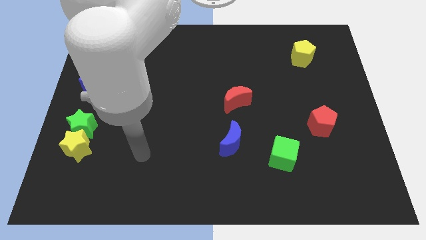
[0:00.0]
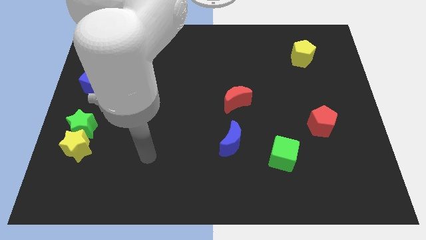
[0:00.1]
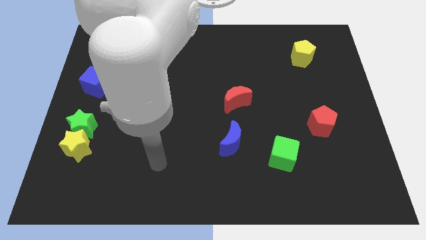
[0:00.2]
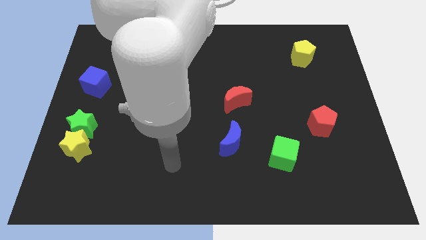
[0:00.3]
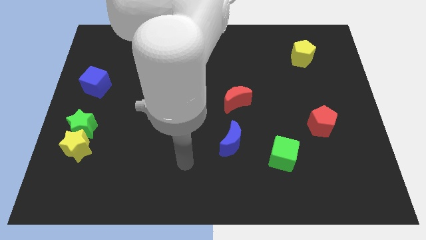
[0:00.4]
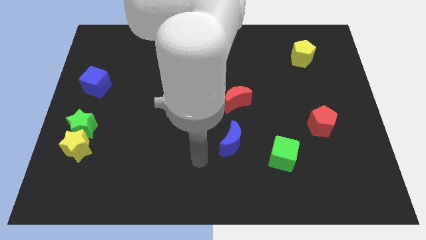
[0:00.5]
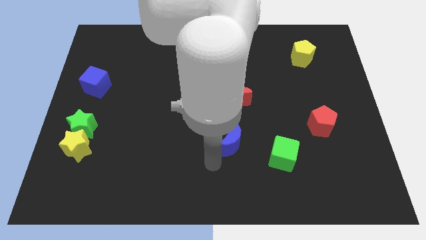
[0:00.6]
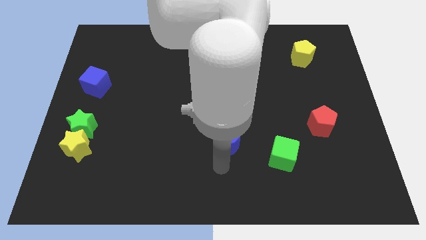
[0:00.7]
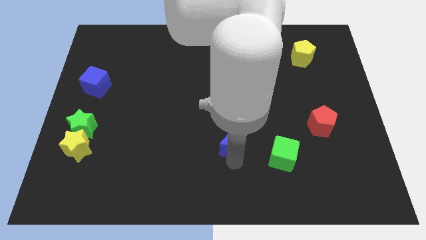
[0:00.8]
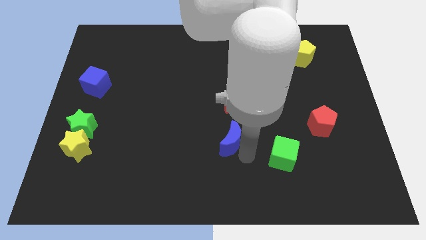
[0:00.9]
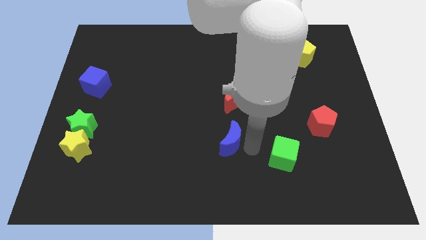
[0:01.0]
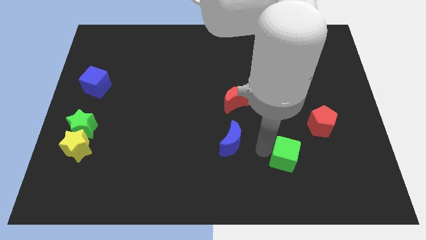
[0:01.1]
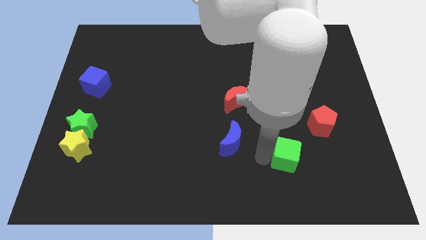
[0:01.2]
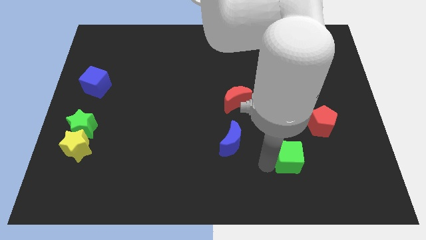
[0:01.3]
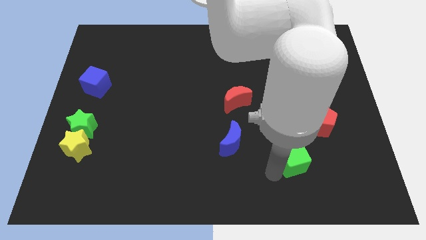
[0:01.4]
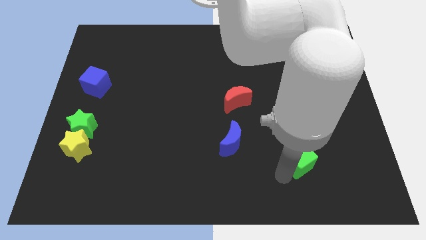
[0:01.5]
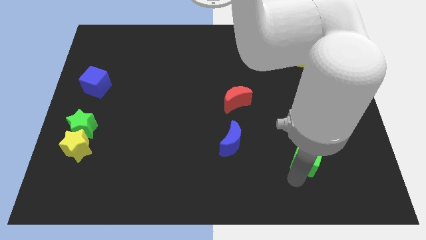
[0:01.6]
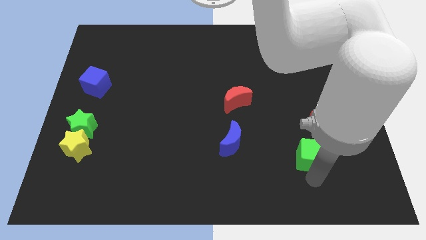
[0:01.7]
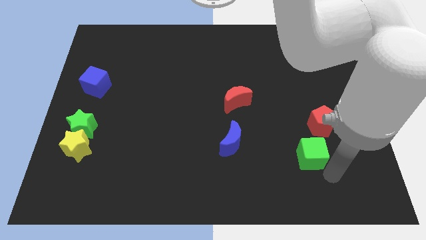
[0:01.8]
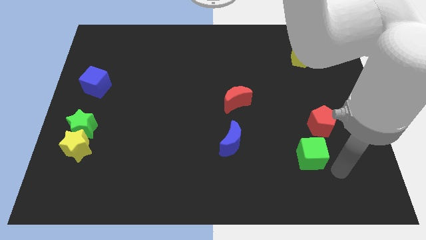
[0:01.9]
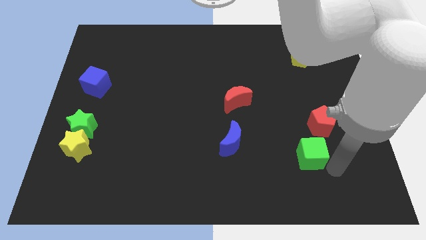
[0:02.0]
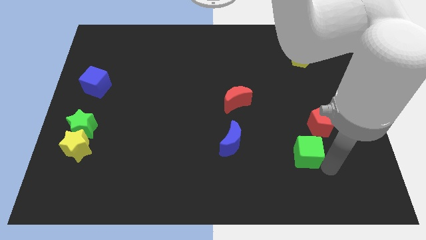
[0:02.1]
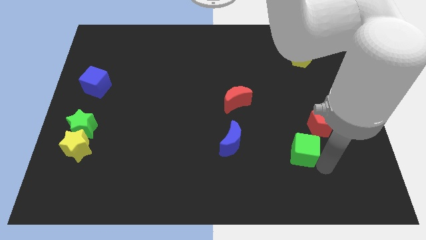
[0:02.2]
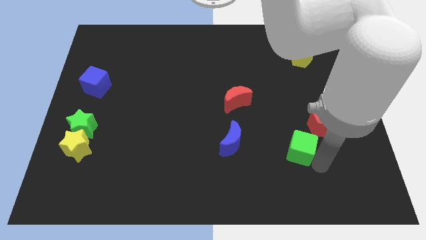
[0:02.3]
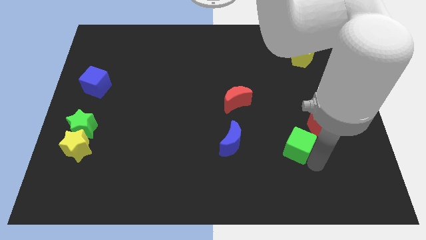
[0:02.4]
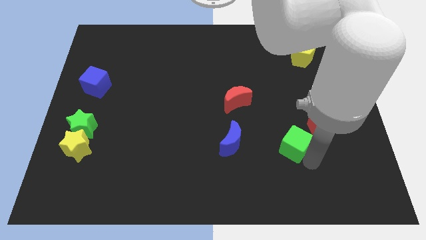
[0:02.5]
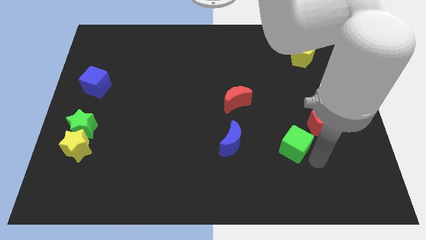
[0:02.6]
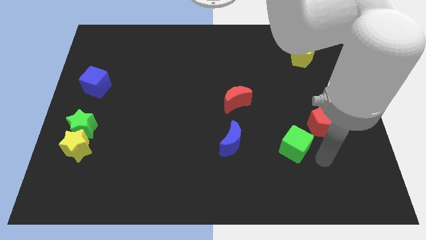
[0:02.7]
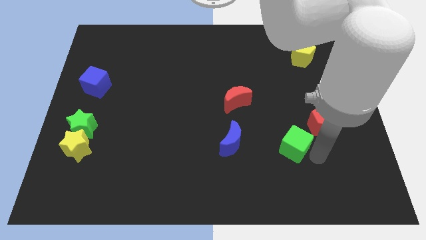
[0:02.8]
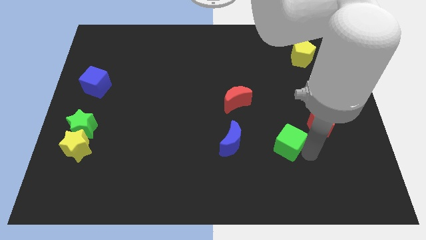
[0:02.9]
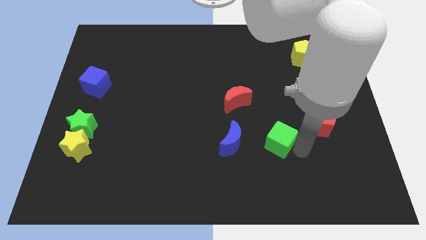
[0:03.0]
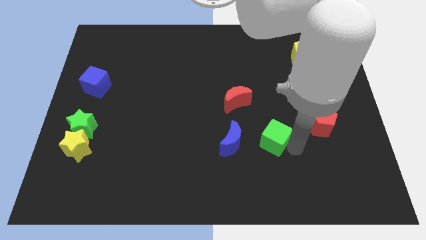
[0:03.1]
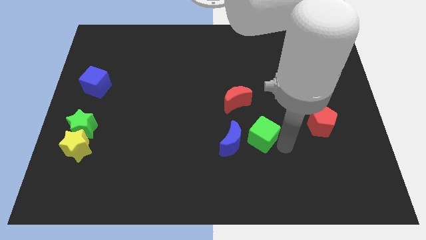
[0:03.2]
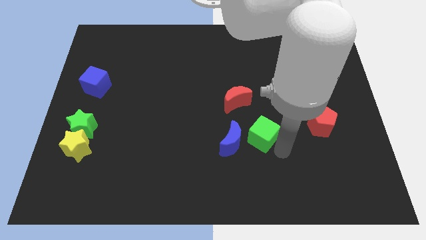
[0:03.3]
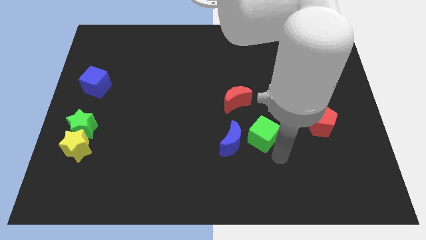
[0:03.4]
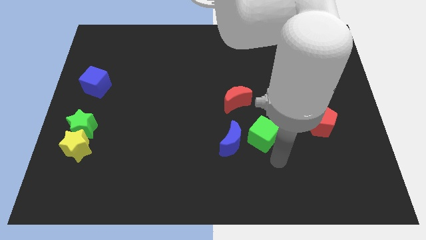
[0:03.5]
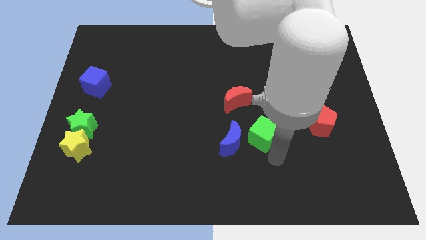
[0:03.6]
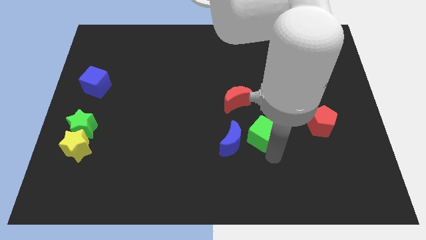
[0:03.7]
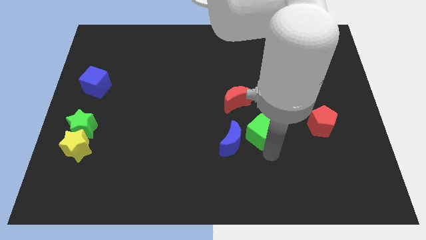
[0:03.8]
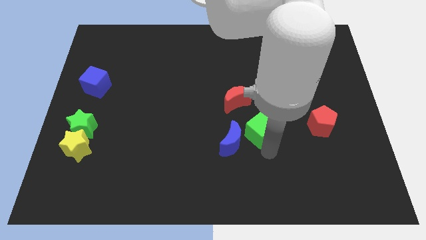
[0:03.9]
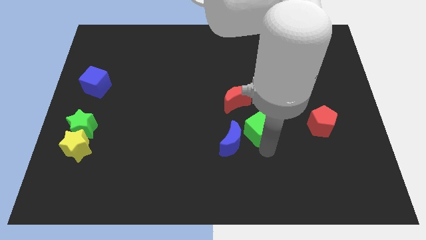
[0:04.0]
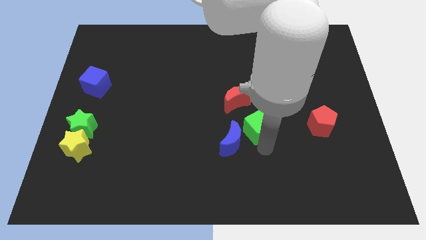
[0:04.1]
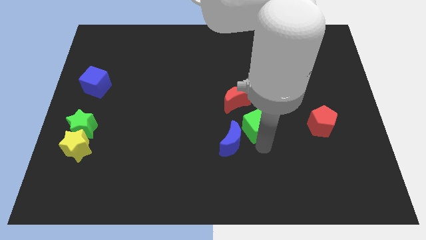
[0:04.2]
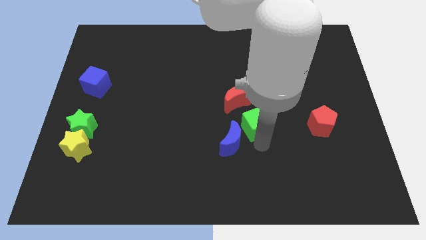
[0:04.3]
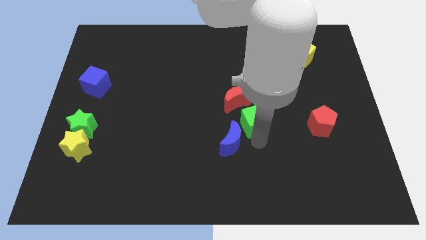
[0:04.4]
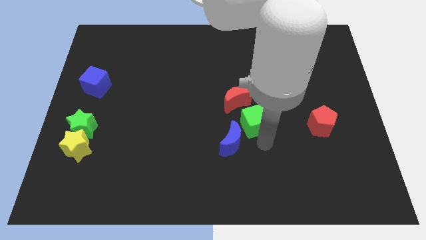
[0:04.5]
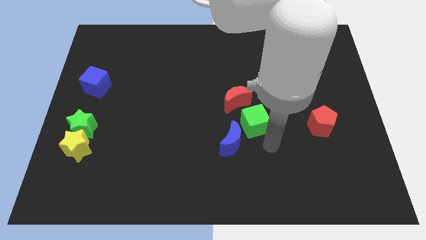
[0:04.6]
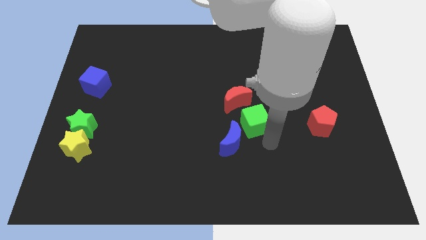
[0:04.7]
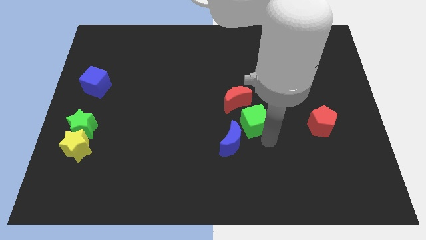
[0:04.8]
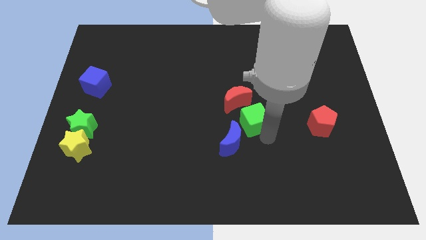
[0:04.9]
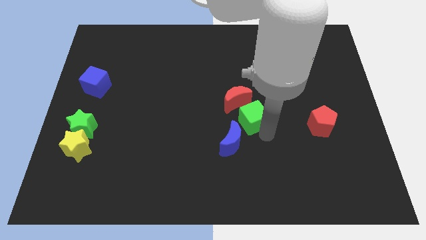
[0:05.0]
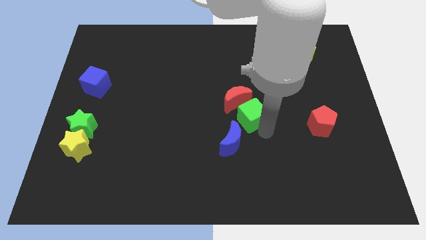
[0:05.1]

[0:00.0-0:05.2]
slide the green cube towards the red moon

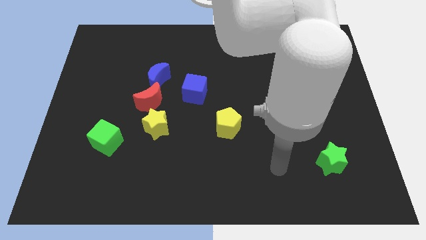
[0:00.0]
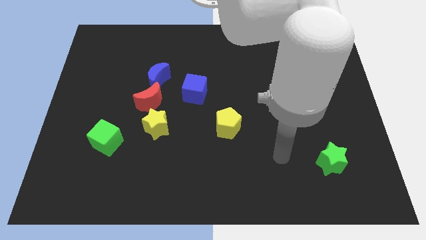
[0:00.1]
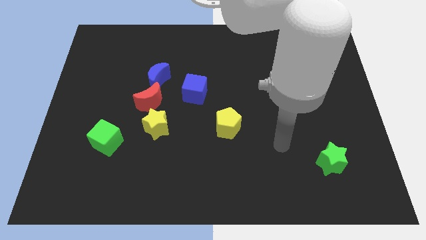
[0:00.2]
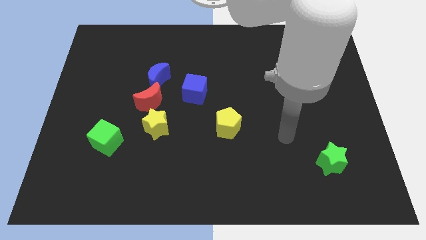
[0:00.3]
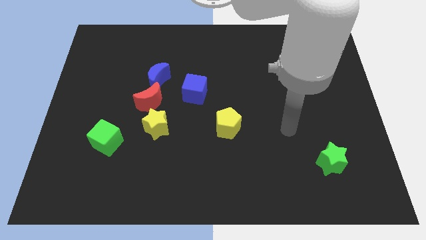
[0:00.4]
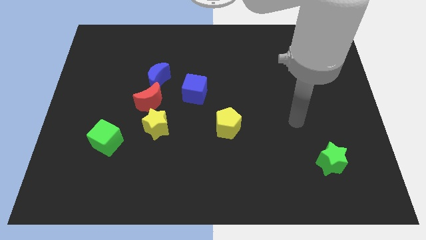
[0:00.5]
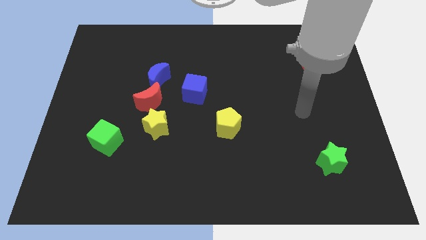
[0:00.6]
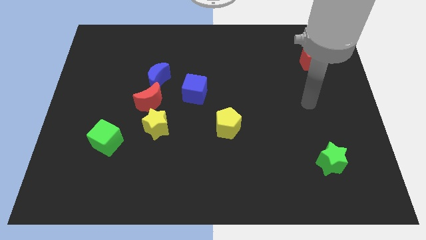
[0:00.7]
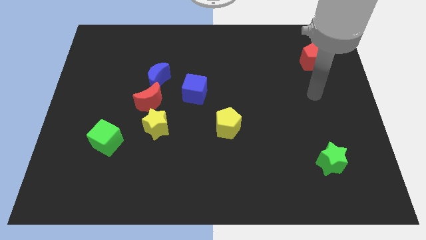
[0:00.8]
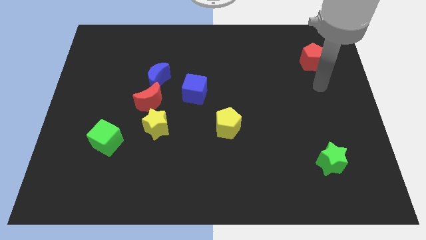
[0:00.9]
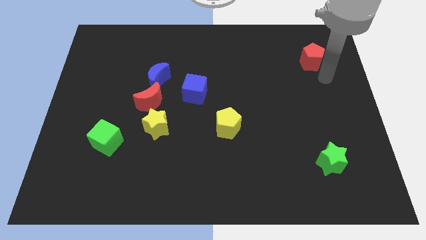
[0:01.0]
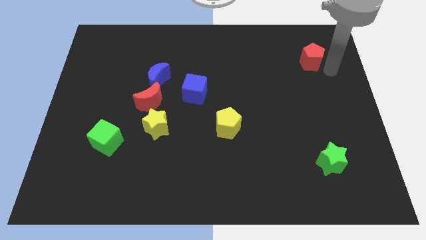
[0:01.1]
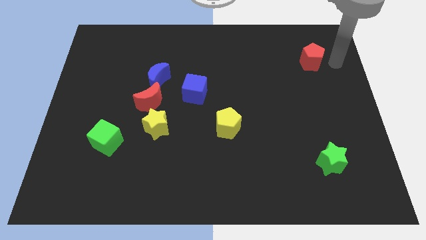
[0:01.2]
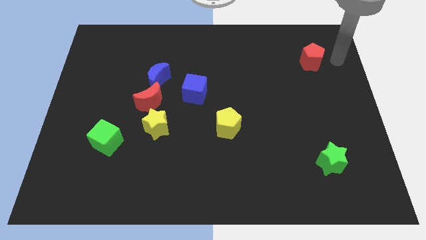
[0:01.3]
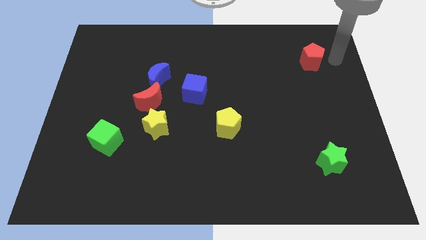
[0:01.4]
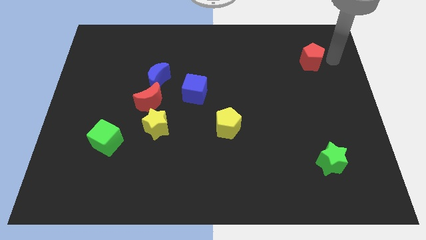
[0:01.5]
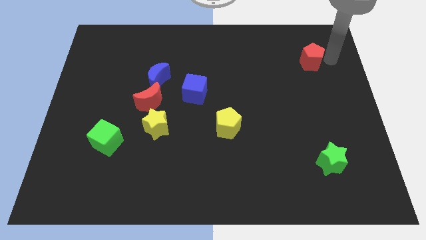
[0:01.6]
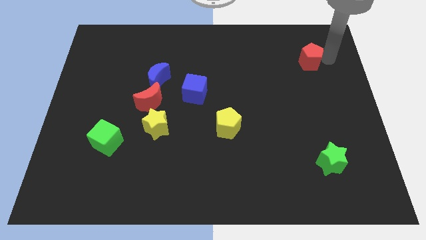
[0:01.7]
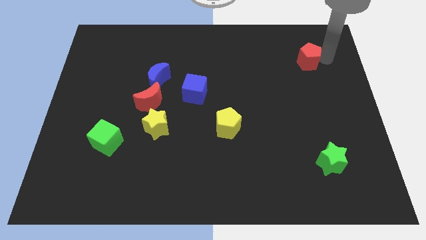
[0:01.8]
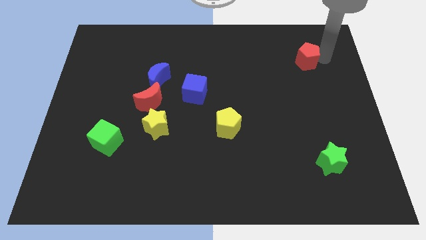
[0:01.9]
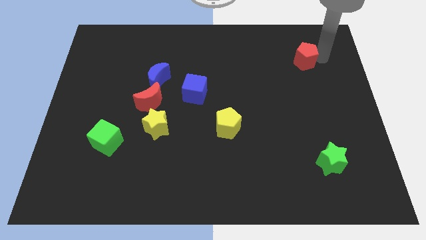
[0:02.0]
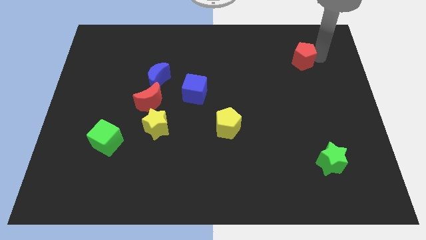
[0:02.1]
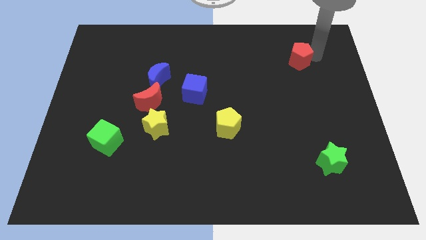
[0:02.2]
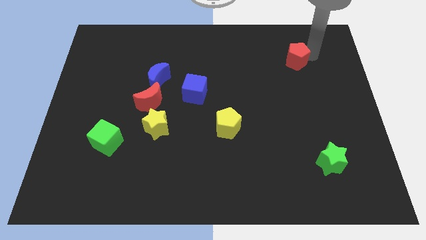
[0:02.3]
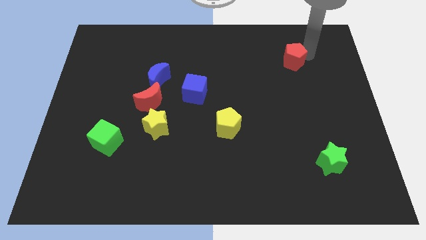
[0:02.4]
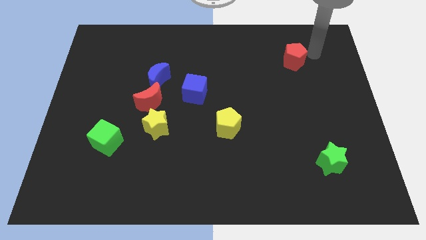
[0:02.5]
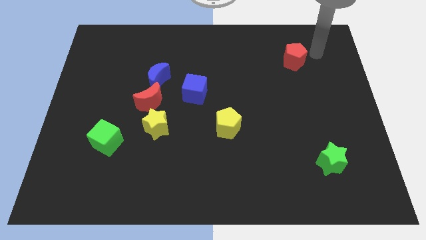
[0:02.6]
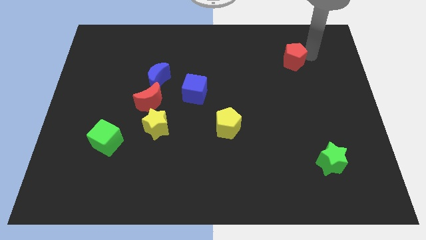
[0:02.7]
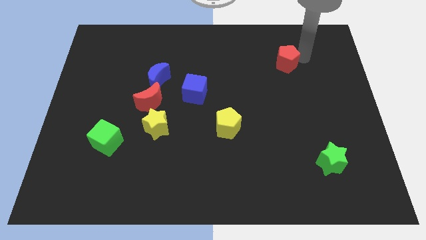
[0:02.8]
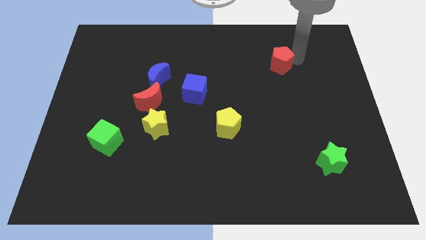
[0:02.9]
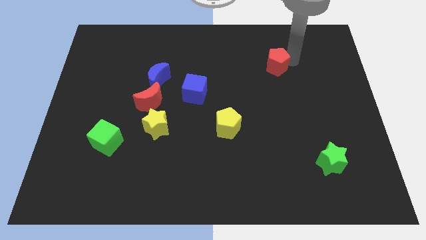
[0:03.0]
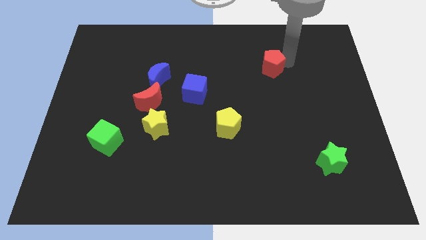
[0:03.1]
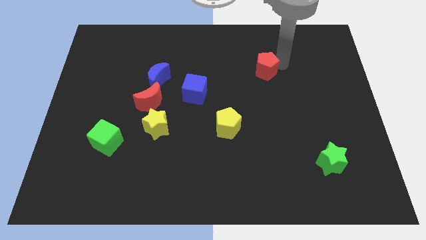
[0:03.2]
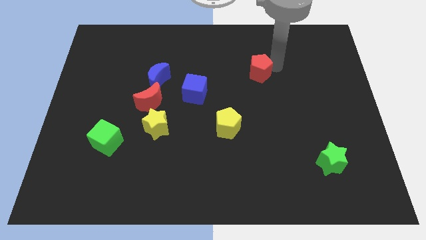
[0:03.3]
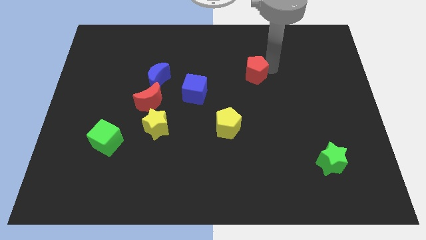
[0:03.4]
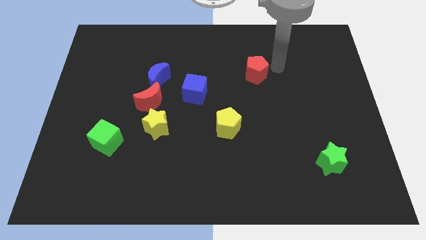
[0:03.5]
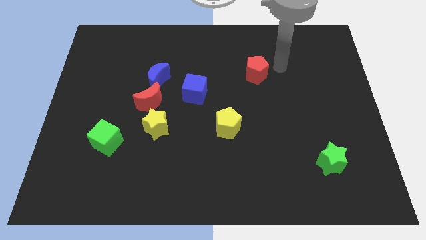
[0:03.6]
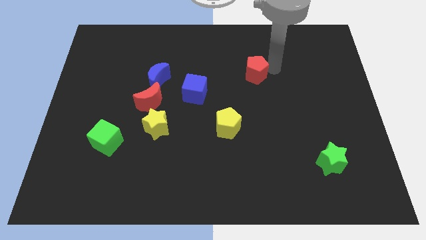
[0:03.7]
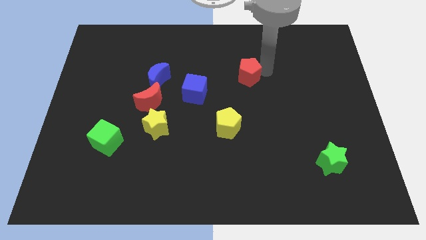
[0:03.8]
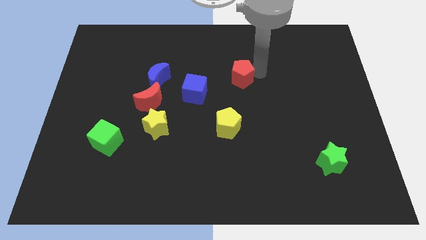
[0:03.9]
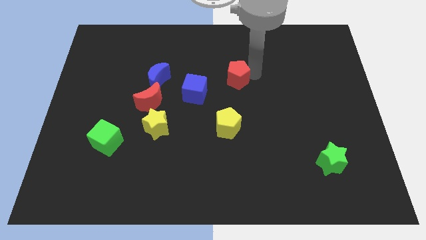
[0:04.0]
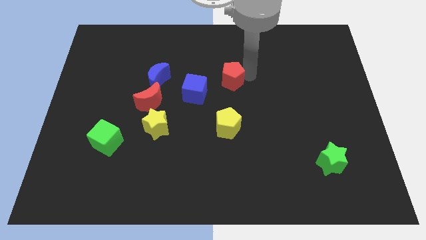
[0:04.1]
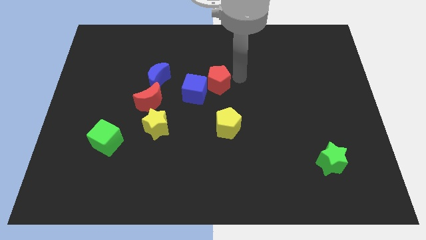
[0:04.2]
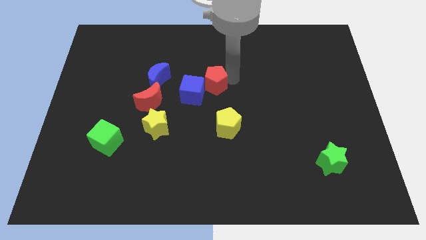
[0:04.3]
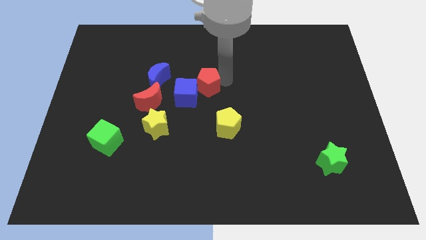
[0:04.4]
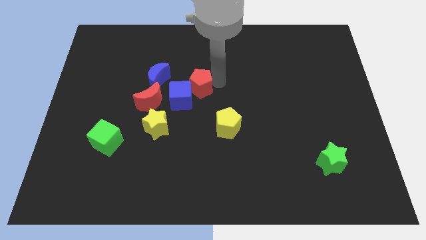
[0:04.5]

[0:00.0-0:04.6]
push the red pentagon towards the blue cube
